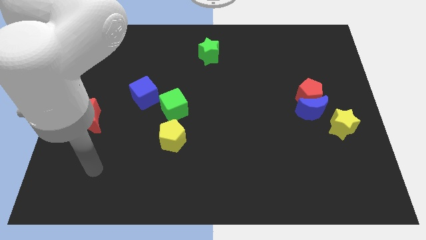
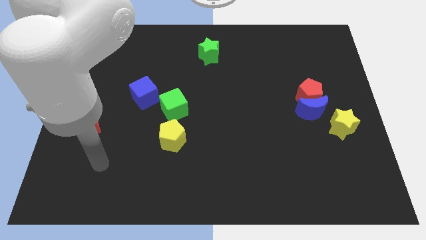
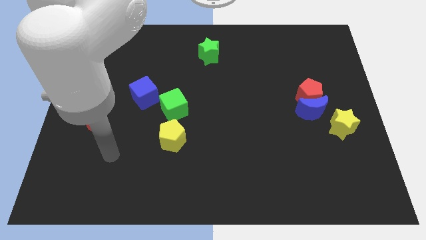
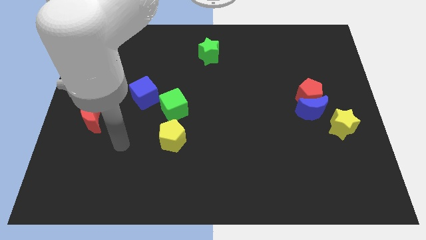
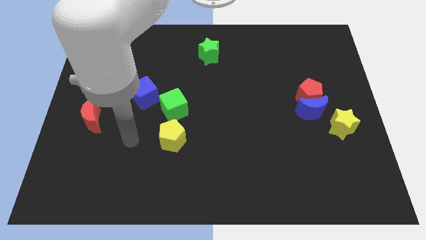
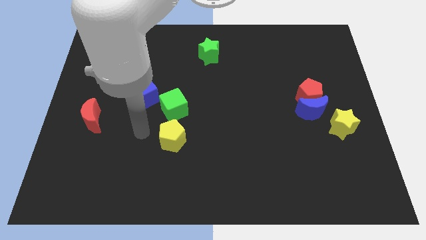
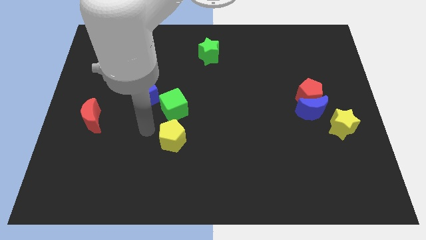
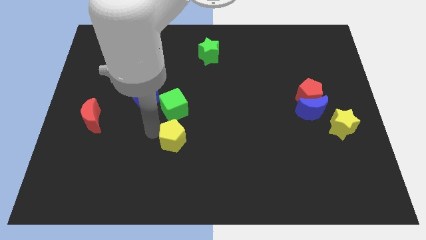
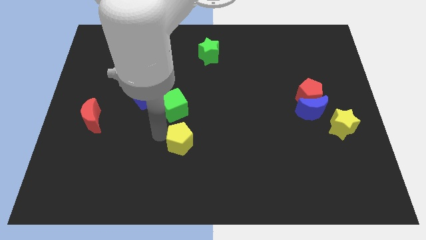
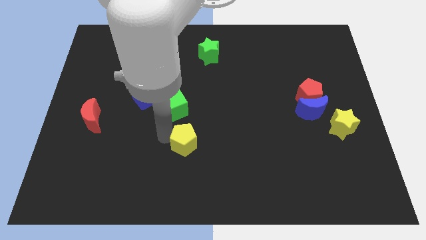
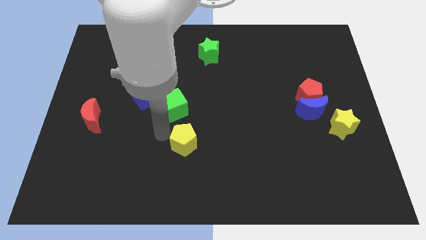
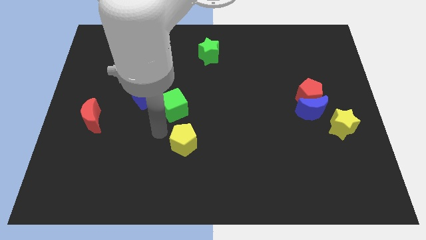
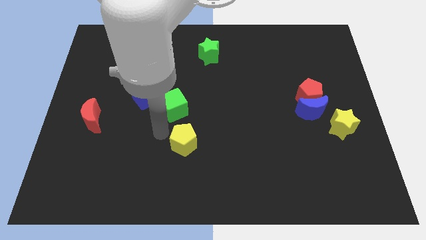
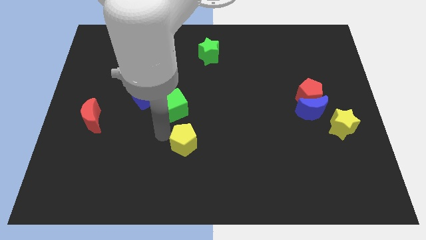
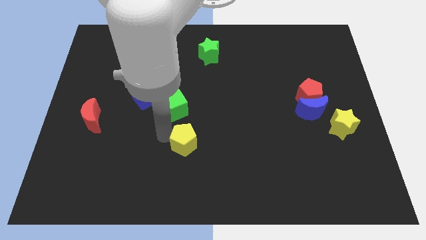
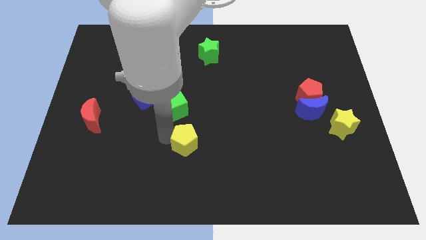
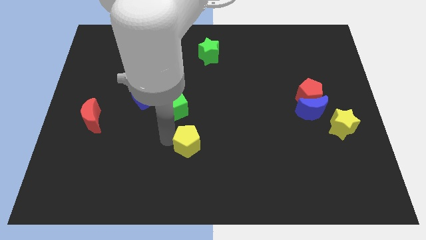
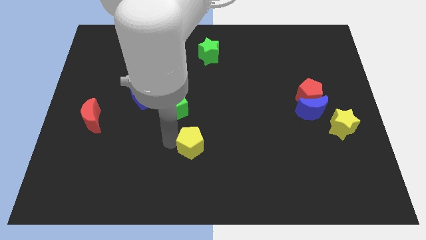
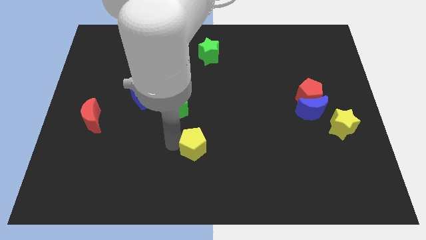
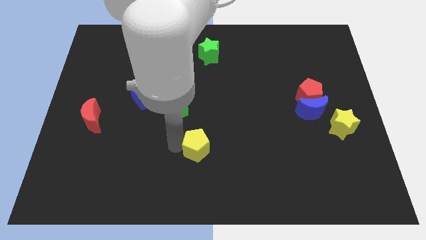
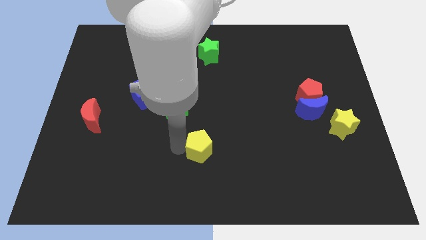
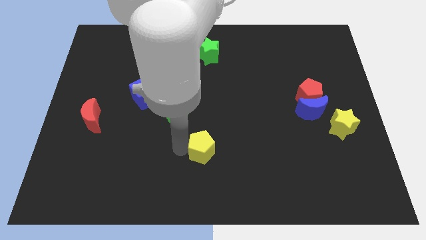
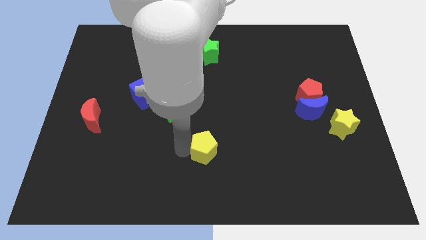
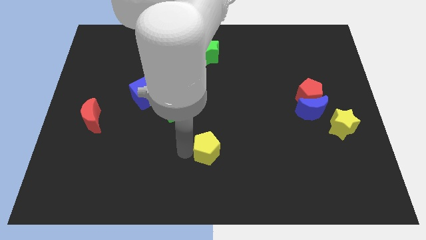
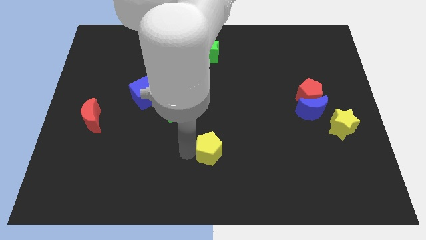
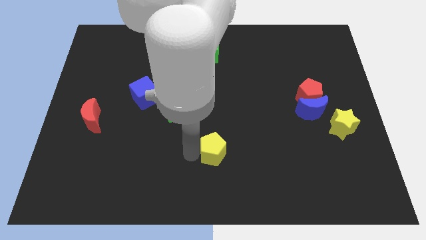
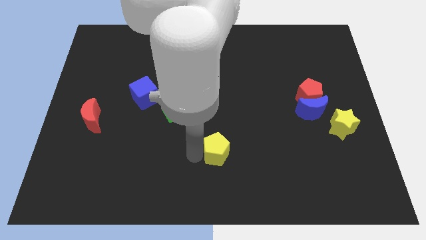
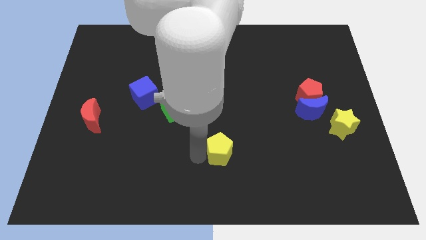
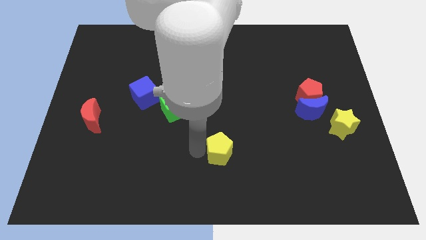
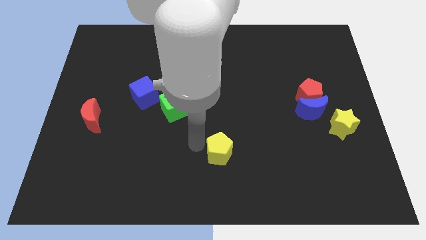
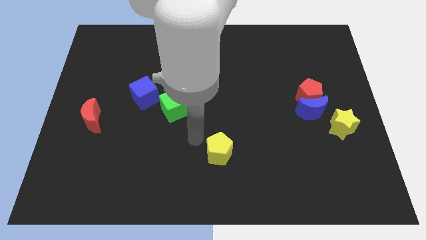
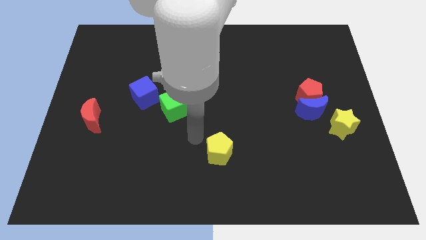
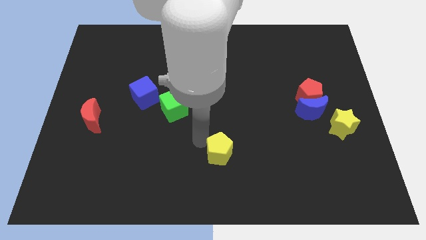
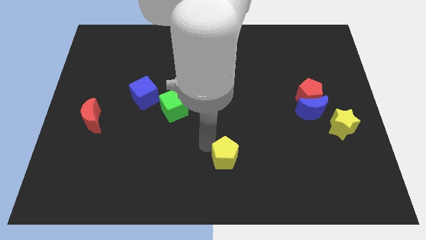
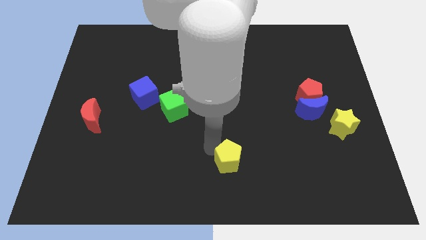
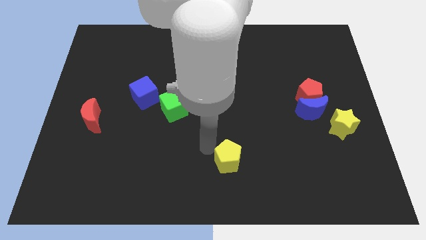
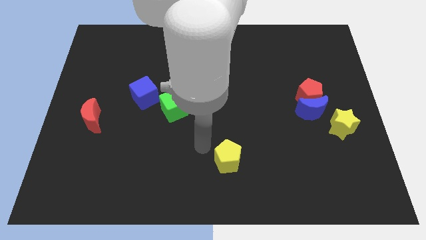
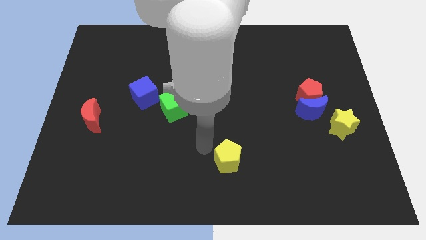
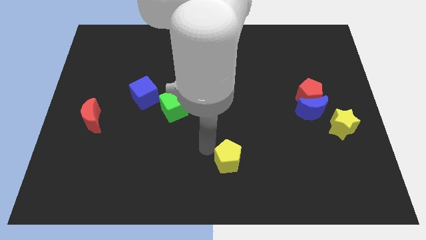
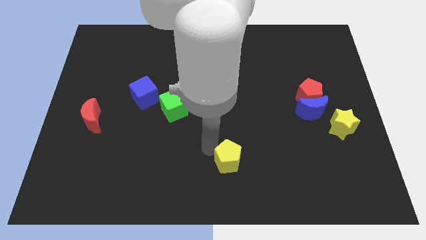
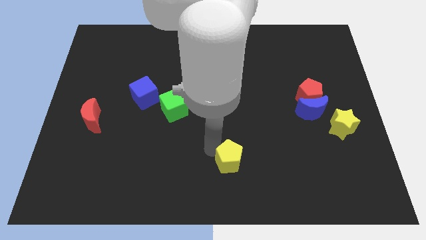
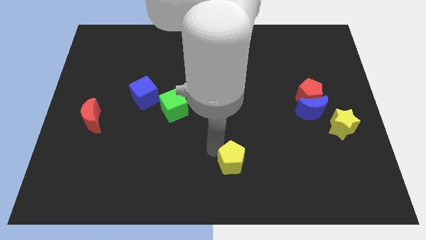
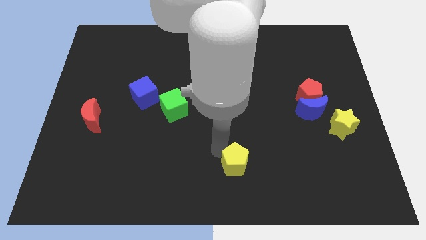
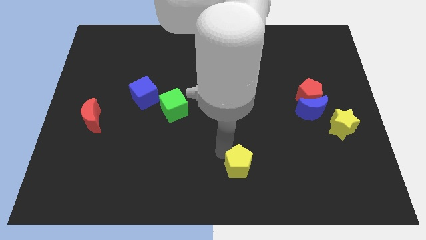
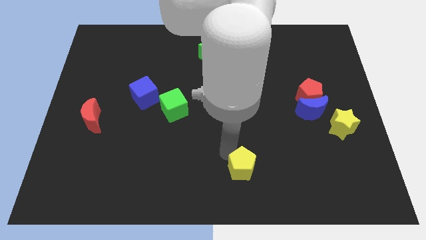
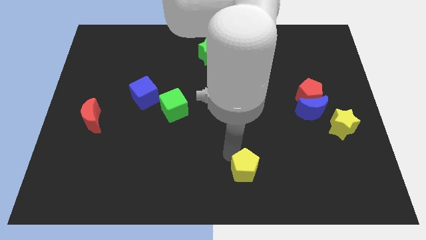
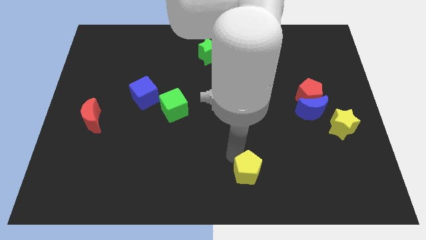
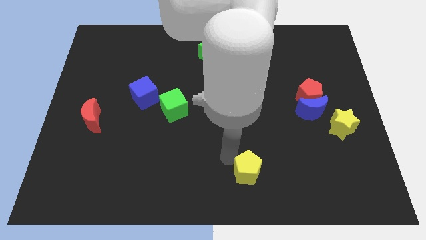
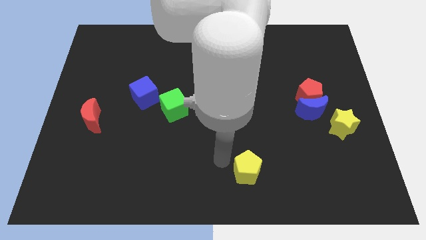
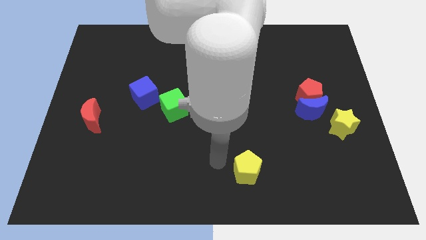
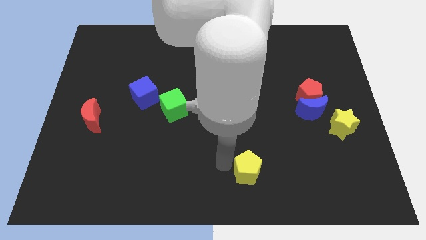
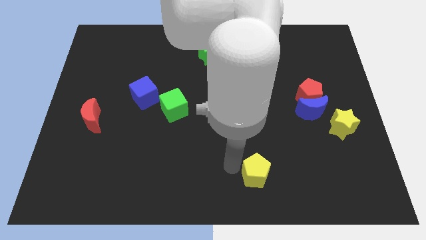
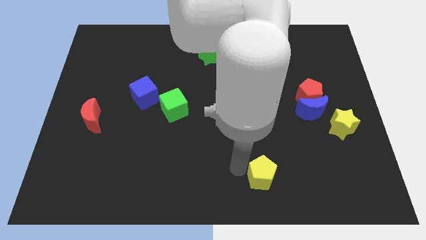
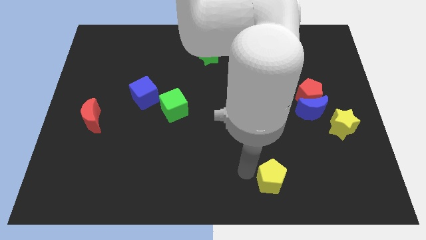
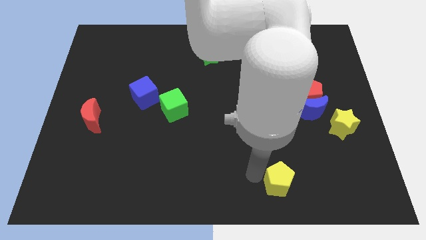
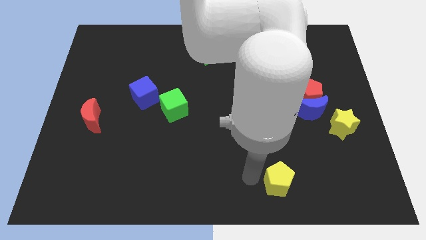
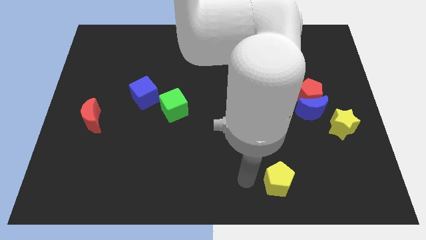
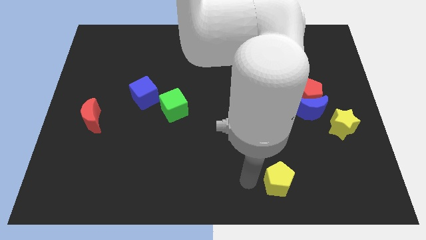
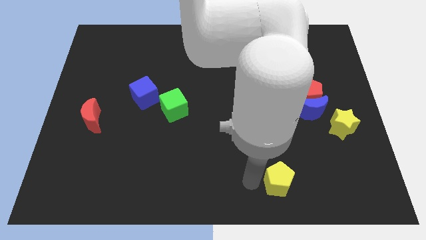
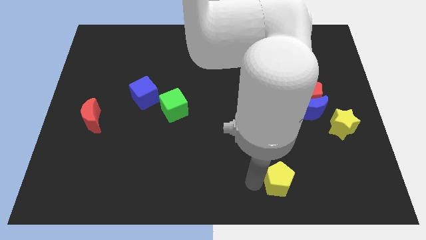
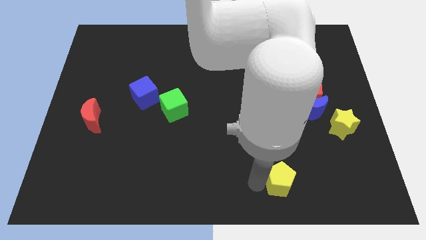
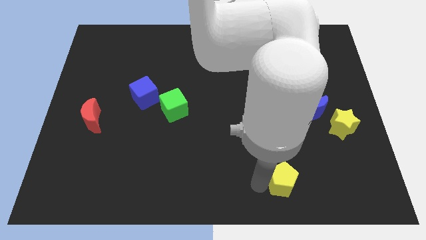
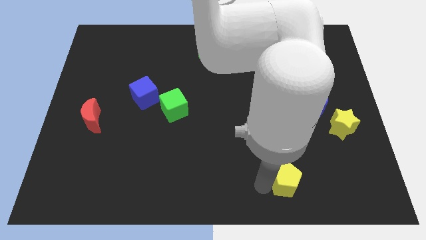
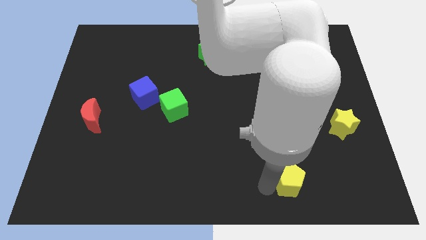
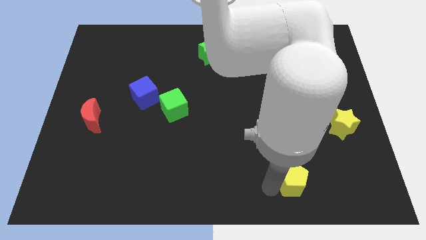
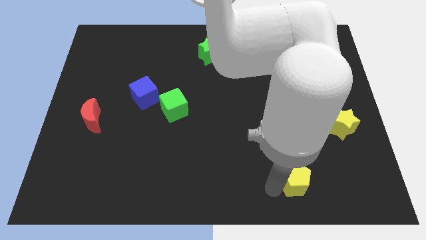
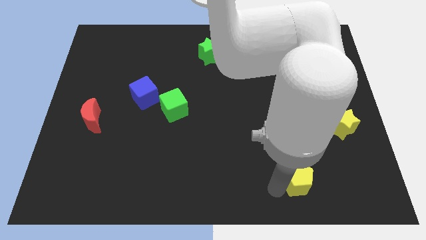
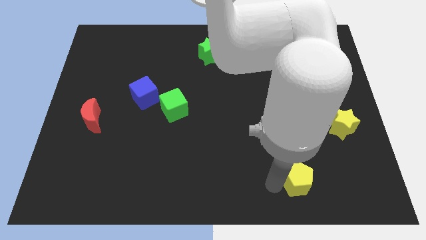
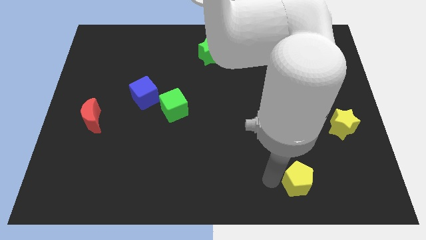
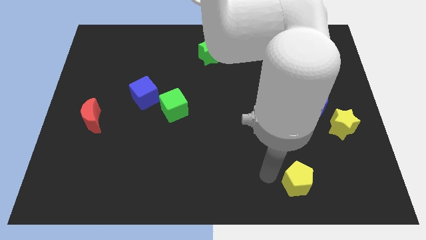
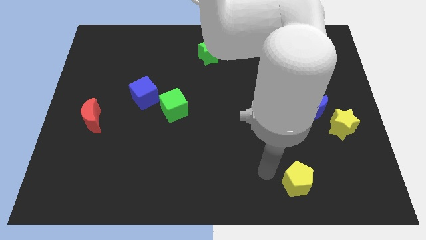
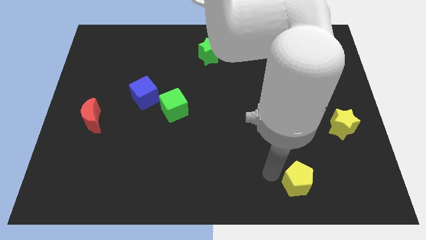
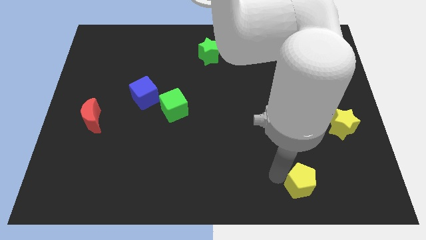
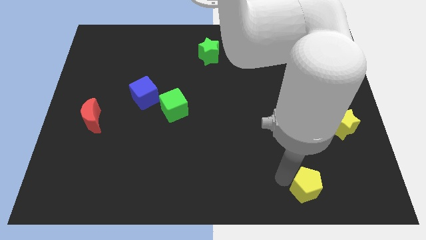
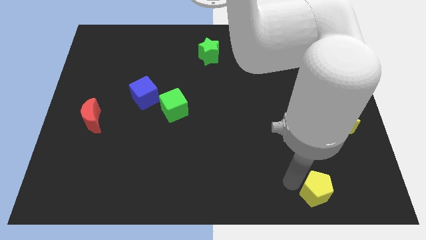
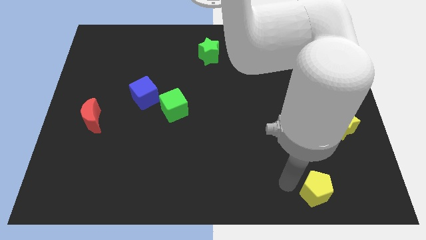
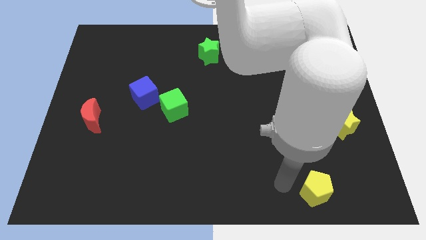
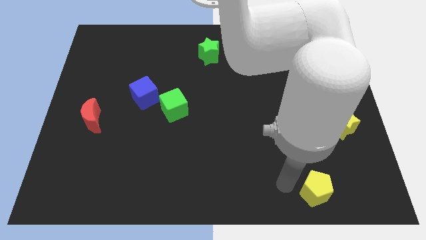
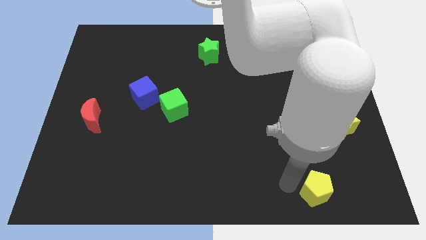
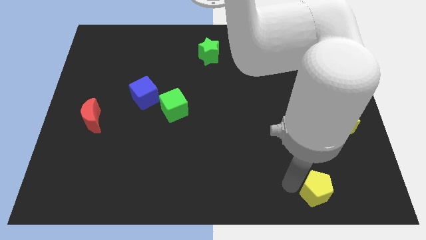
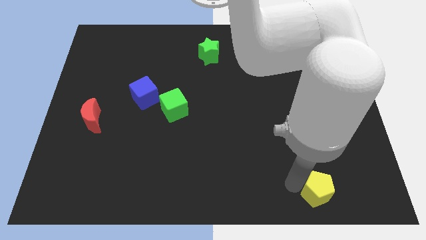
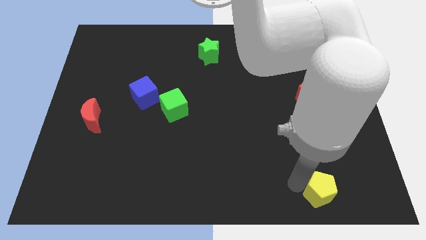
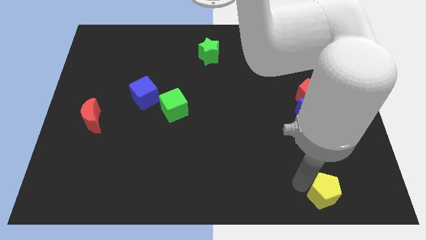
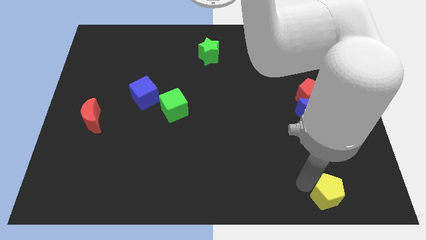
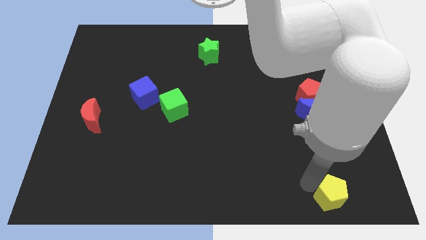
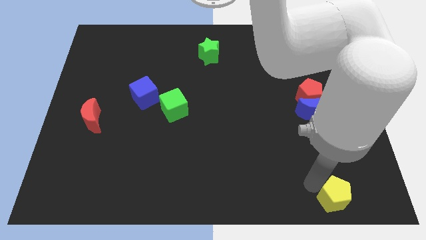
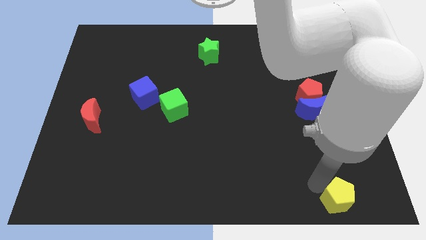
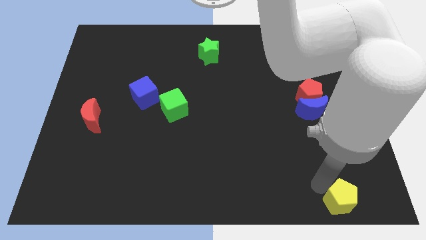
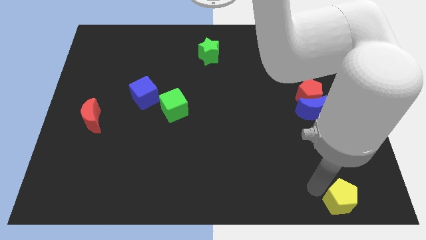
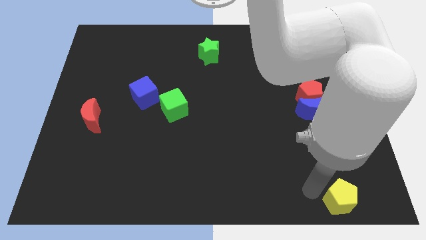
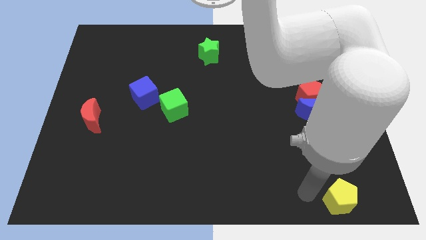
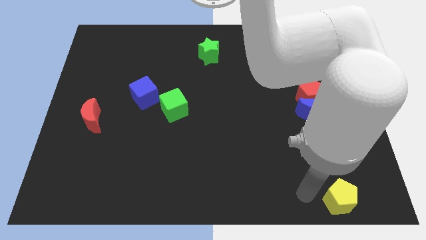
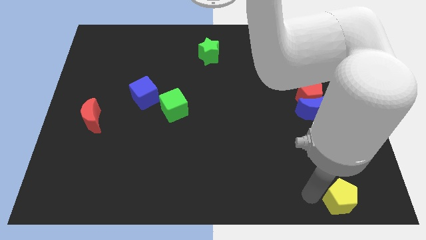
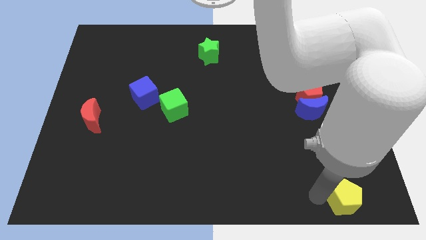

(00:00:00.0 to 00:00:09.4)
move the yellow pentagon to the lower right corner
